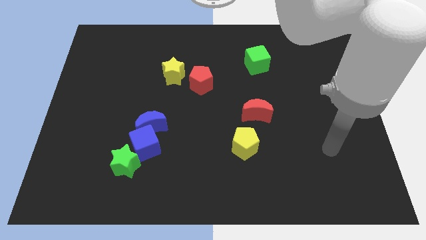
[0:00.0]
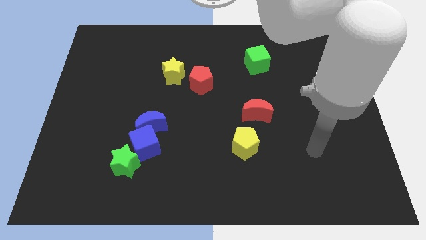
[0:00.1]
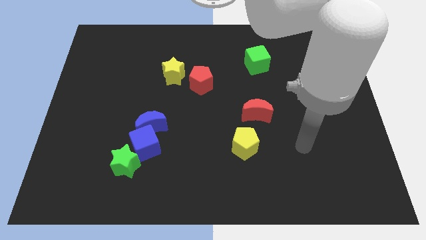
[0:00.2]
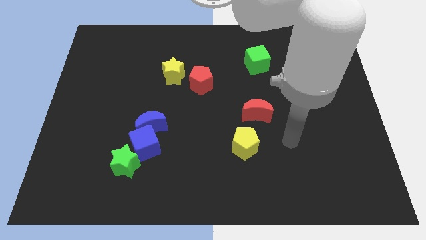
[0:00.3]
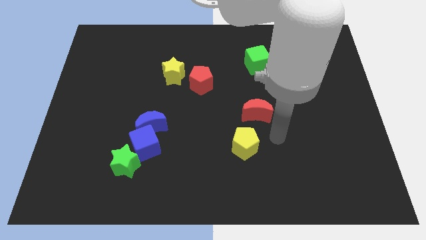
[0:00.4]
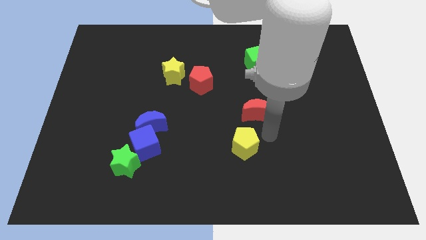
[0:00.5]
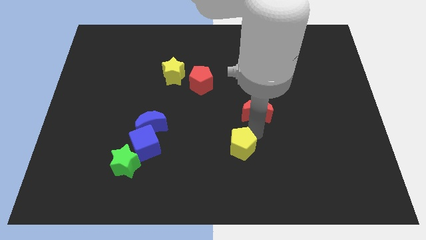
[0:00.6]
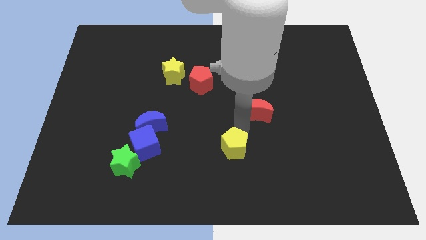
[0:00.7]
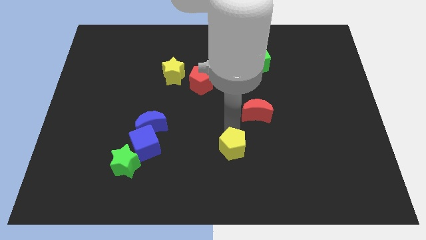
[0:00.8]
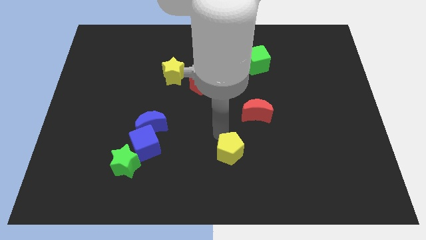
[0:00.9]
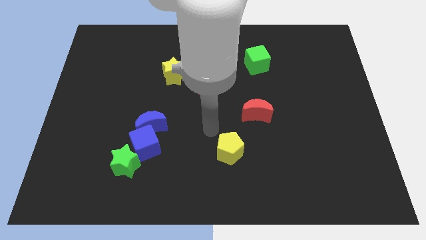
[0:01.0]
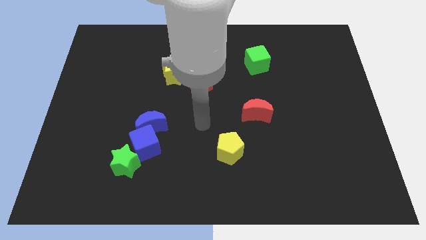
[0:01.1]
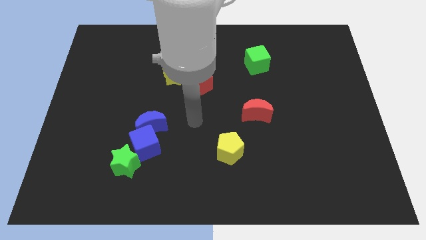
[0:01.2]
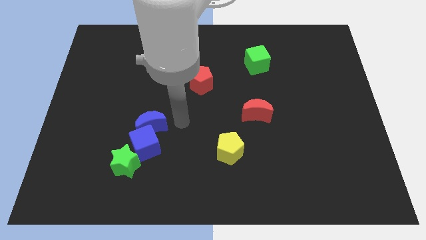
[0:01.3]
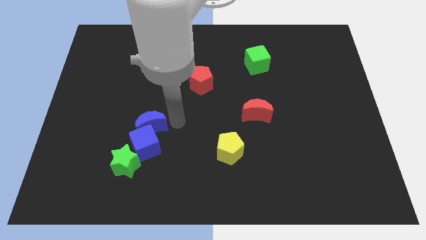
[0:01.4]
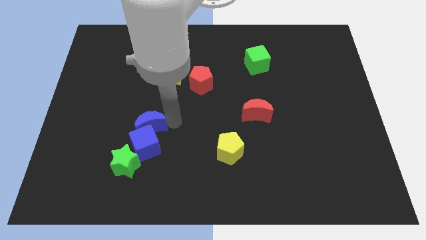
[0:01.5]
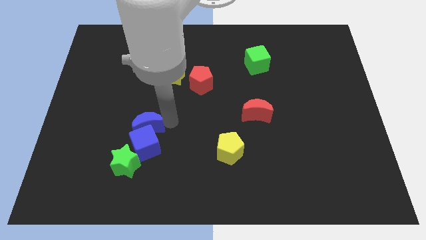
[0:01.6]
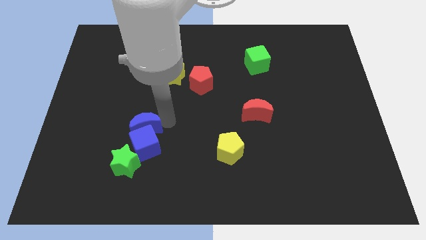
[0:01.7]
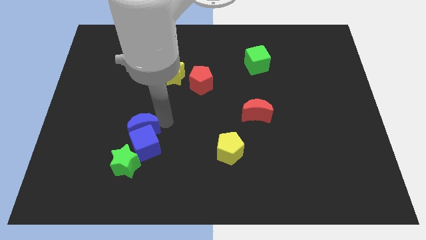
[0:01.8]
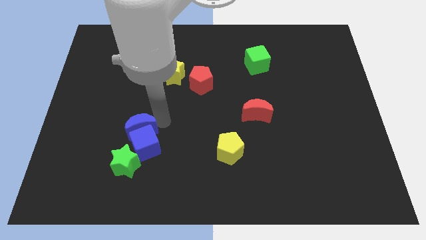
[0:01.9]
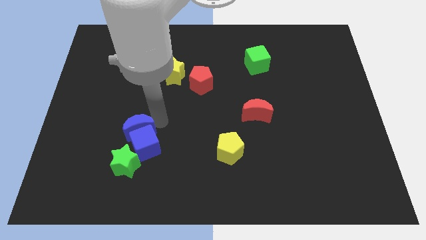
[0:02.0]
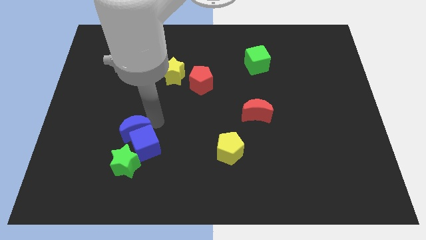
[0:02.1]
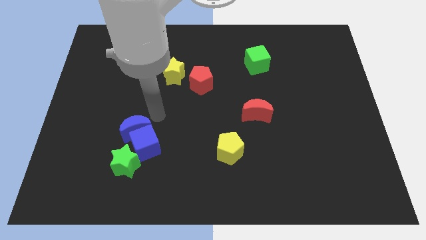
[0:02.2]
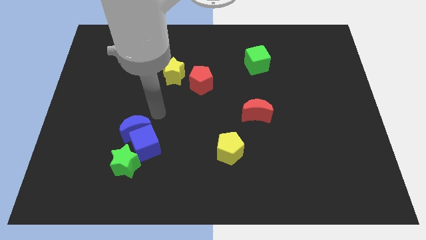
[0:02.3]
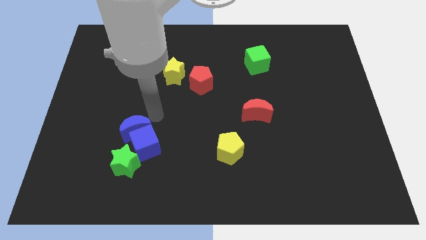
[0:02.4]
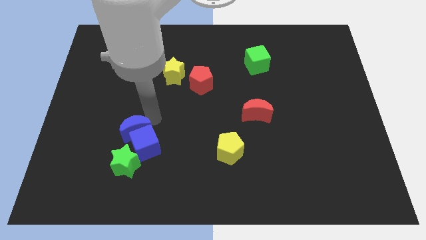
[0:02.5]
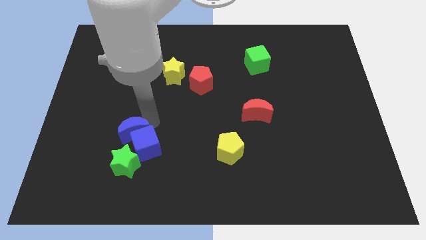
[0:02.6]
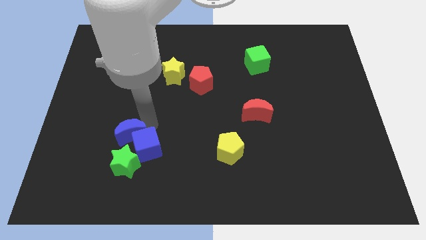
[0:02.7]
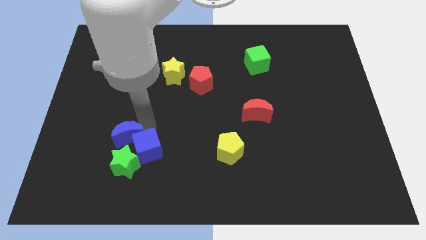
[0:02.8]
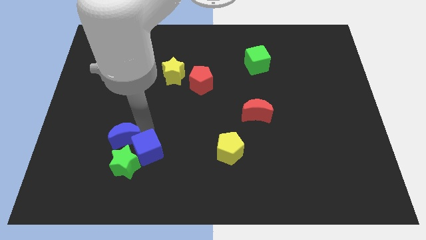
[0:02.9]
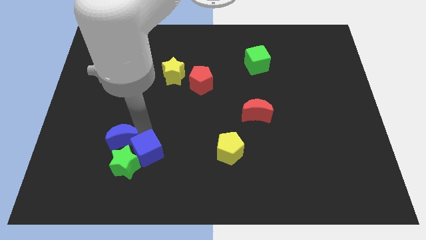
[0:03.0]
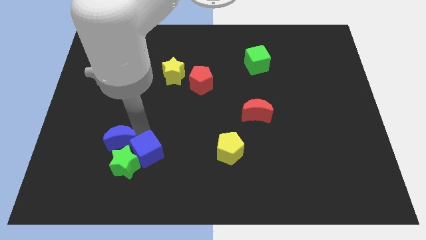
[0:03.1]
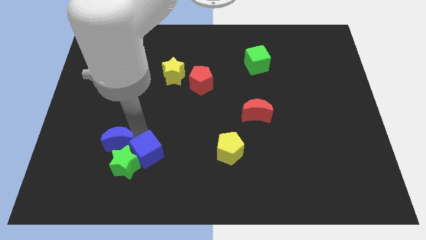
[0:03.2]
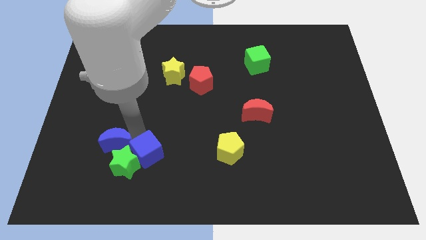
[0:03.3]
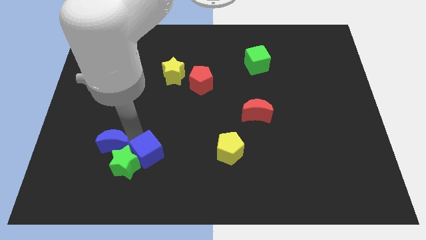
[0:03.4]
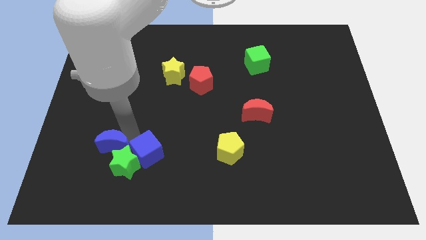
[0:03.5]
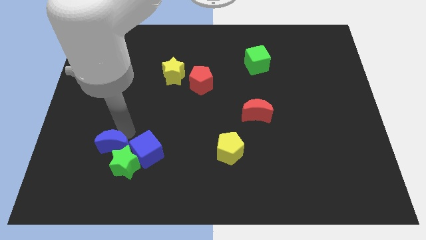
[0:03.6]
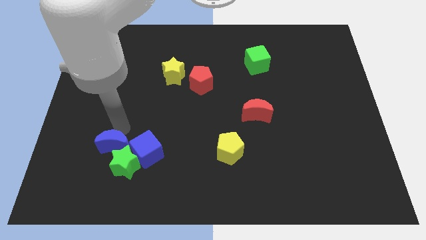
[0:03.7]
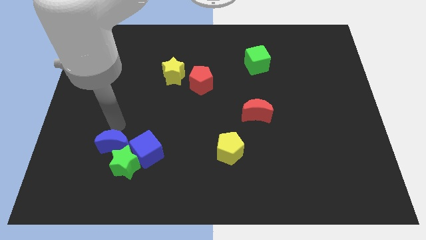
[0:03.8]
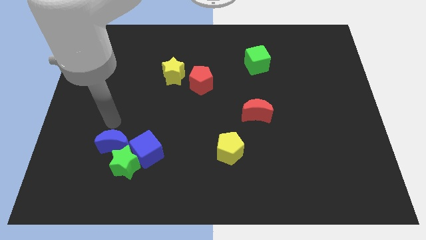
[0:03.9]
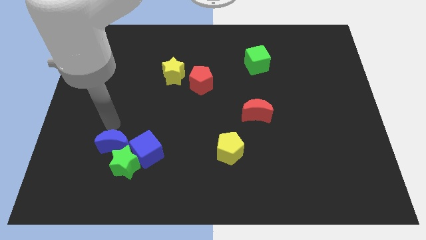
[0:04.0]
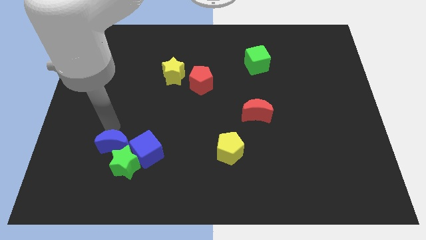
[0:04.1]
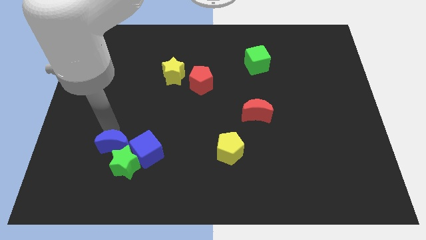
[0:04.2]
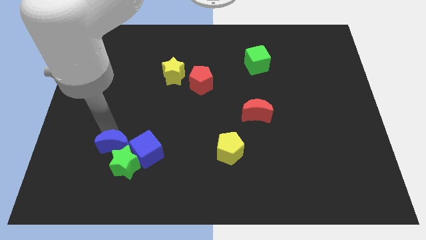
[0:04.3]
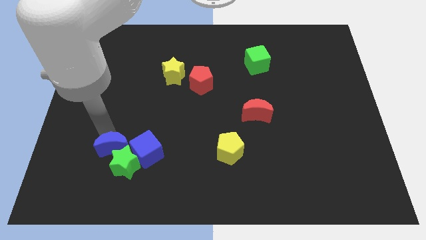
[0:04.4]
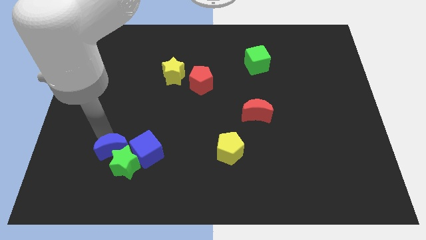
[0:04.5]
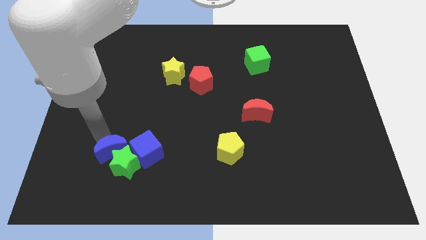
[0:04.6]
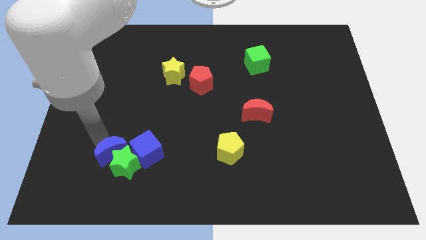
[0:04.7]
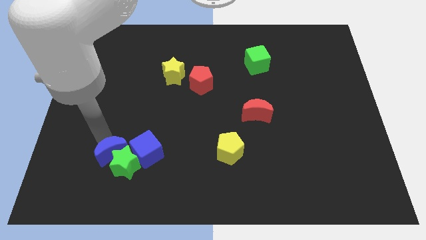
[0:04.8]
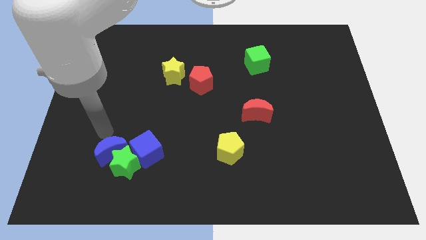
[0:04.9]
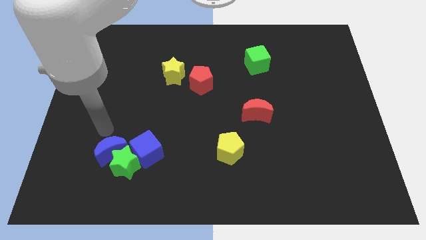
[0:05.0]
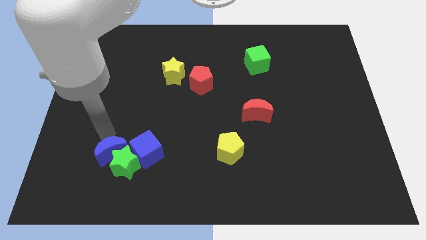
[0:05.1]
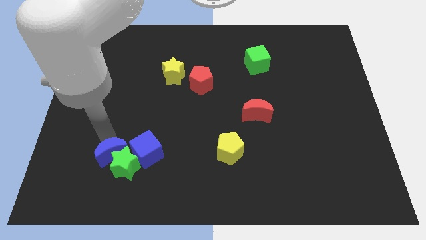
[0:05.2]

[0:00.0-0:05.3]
slide the blue moon diagonally down and to the left of the blue cube

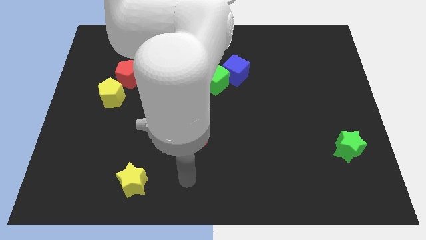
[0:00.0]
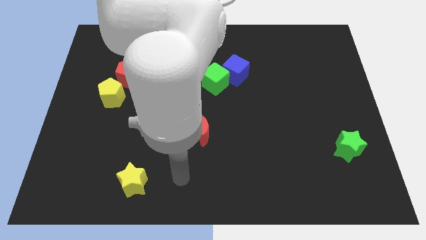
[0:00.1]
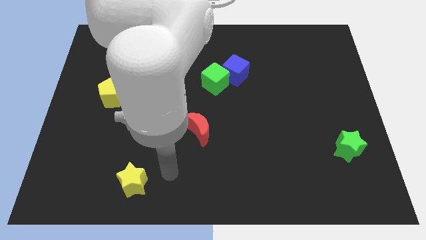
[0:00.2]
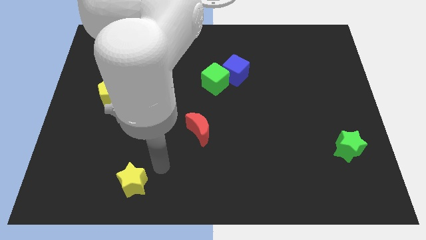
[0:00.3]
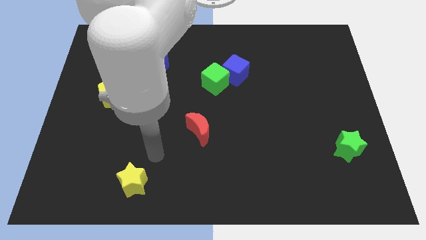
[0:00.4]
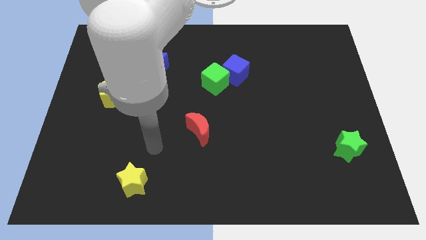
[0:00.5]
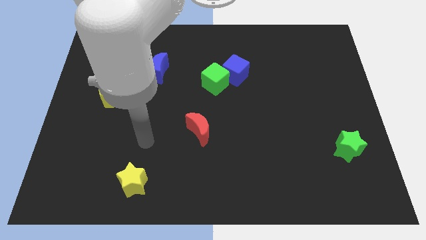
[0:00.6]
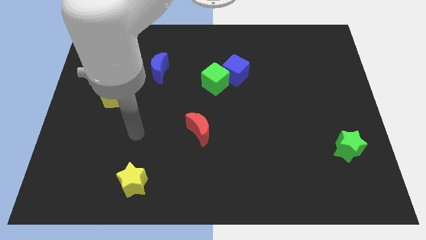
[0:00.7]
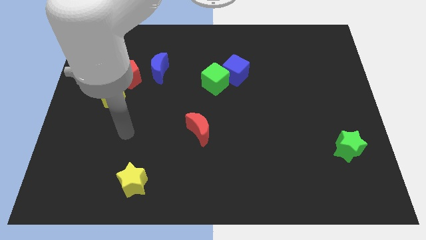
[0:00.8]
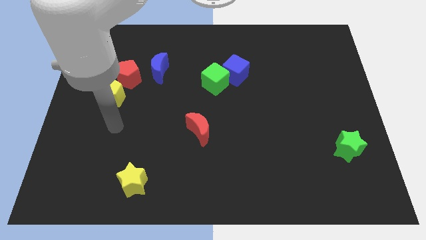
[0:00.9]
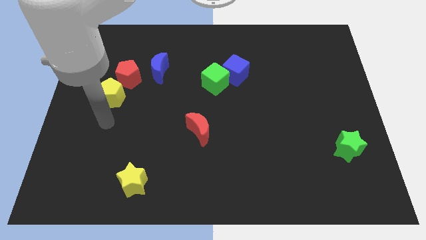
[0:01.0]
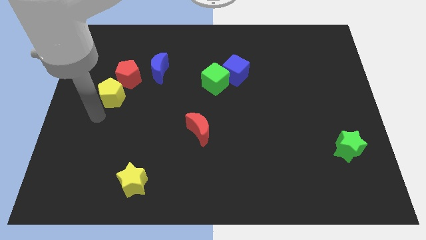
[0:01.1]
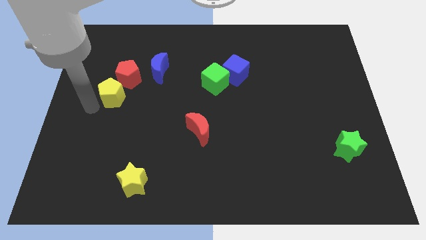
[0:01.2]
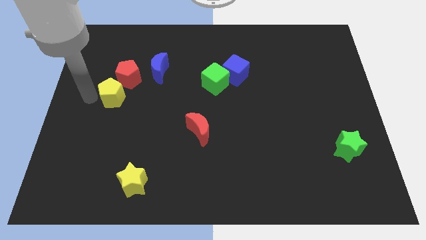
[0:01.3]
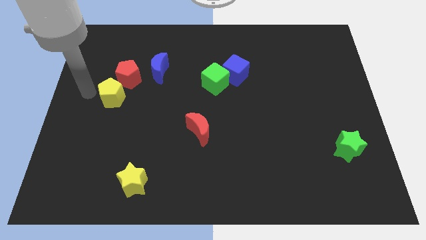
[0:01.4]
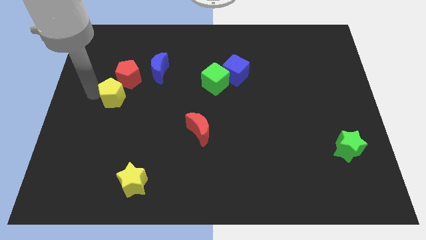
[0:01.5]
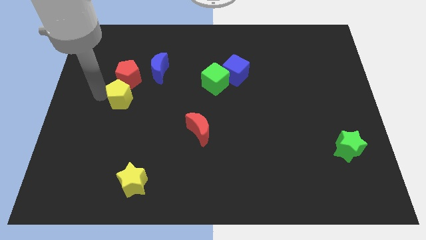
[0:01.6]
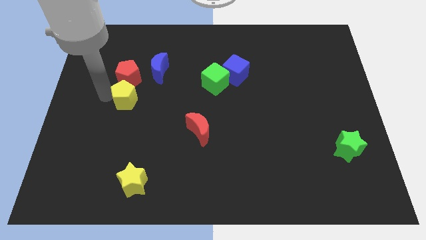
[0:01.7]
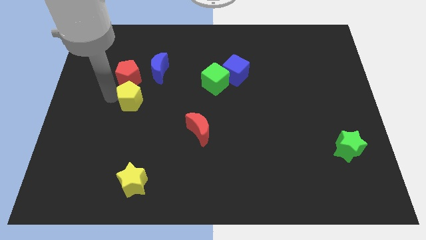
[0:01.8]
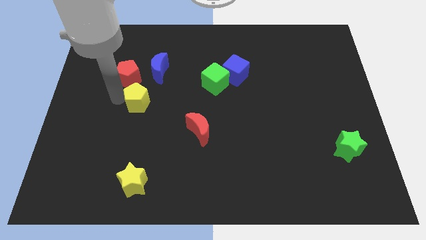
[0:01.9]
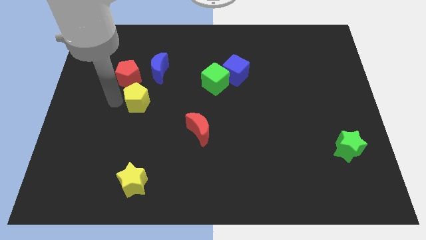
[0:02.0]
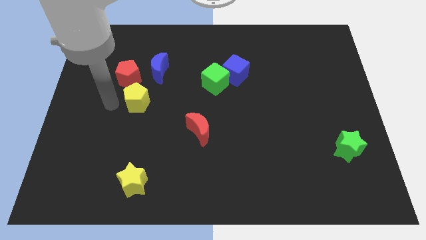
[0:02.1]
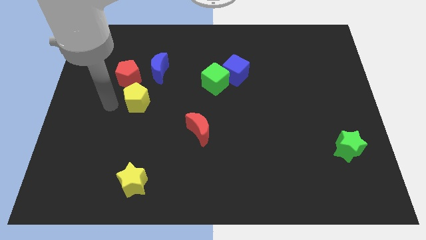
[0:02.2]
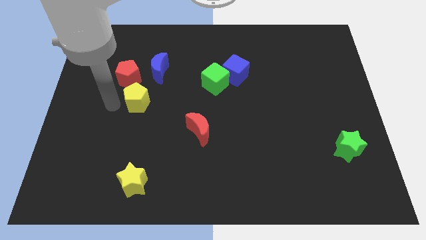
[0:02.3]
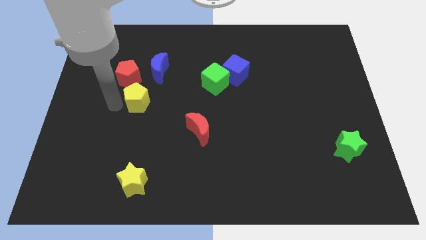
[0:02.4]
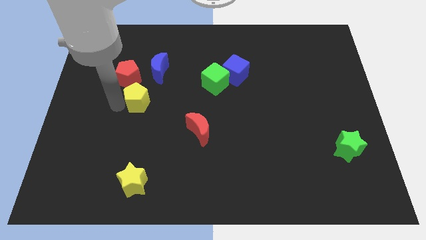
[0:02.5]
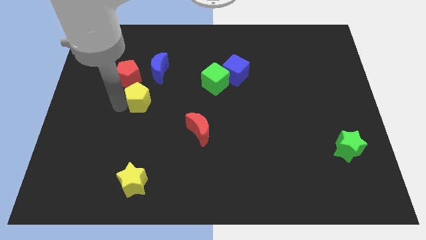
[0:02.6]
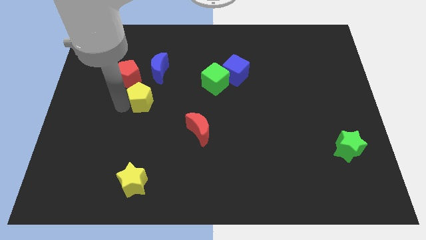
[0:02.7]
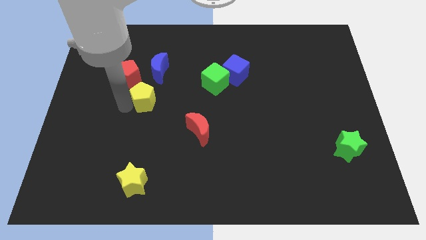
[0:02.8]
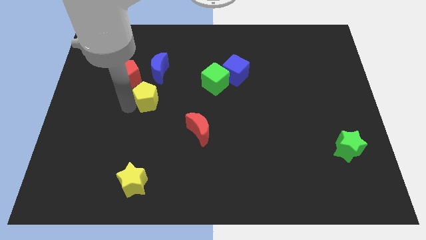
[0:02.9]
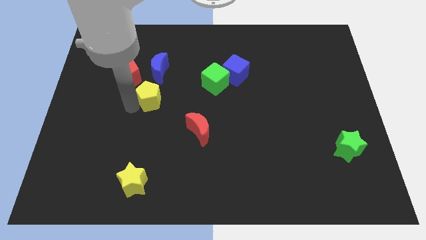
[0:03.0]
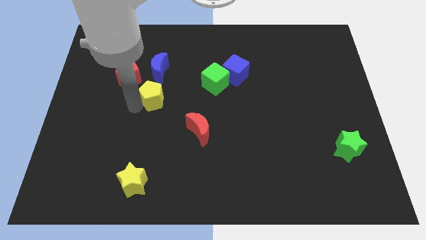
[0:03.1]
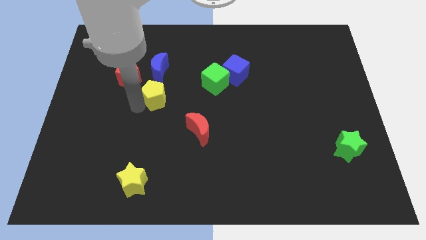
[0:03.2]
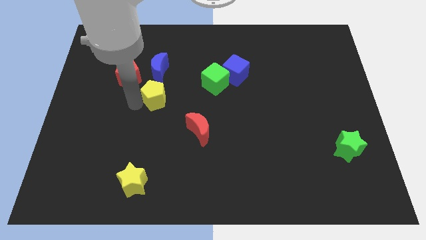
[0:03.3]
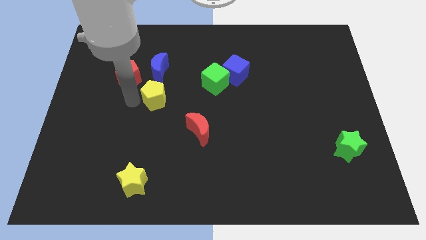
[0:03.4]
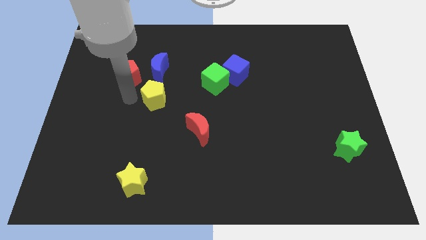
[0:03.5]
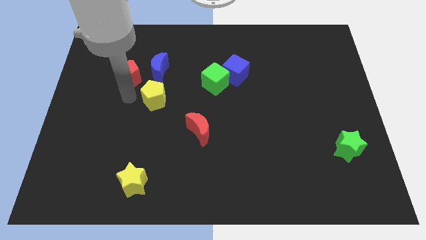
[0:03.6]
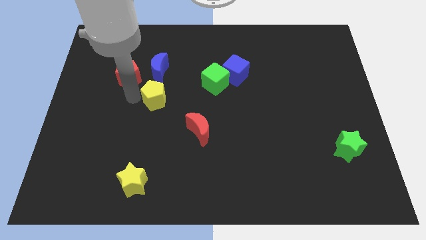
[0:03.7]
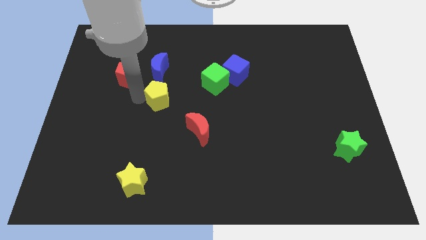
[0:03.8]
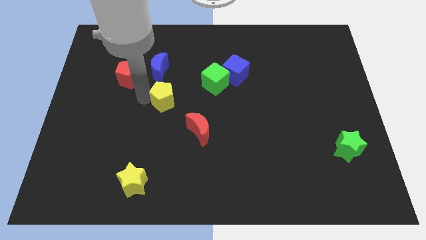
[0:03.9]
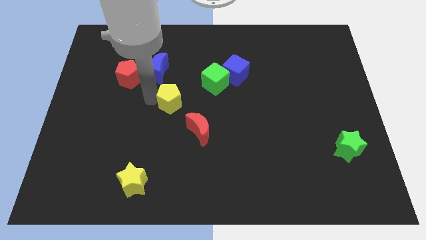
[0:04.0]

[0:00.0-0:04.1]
push the yellow pentagon to the bottom left side of the green cube
